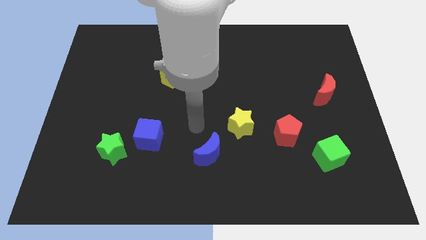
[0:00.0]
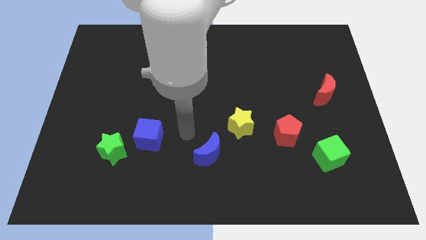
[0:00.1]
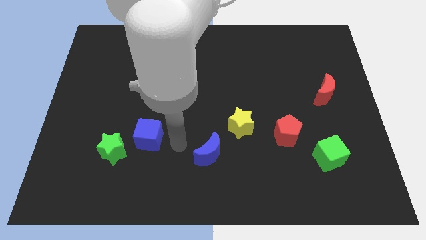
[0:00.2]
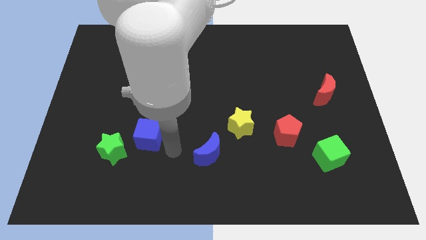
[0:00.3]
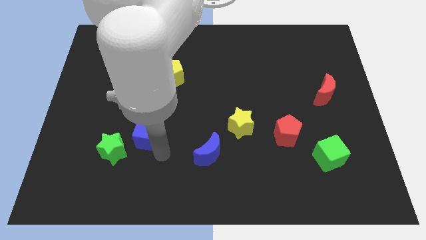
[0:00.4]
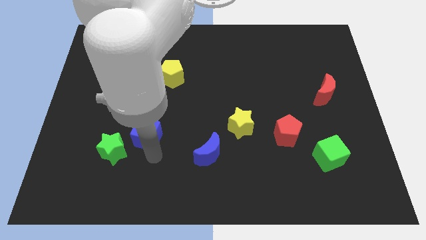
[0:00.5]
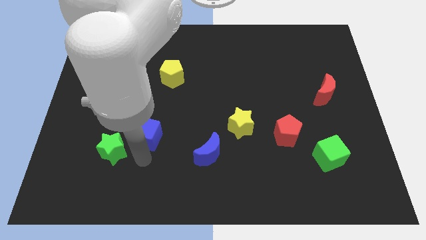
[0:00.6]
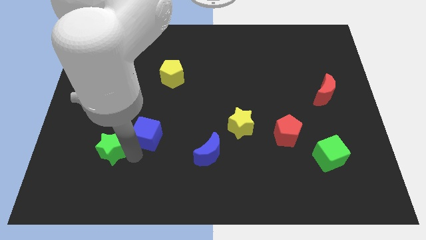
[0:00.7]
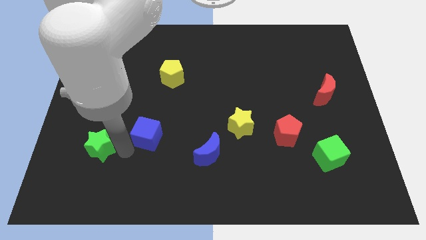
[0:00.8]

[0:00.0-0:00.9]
pull the blue cube apart from the green star

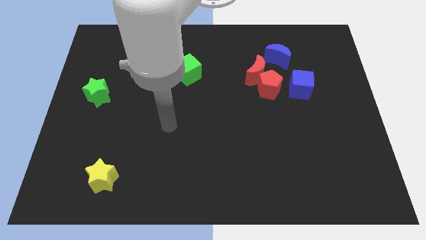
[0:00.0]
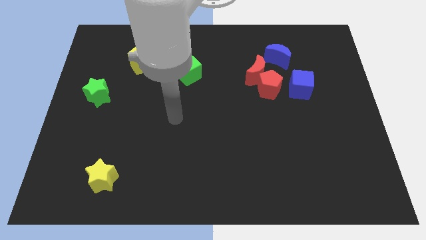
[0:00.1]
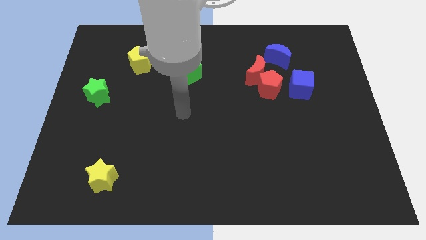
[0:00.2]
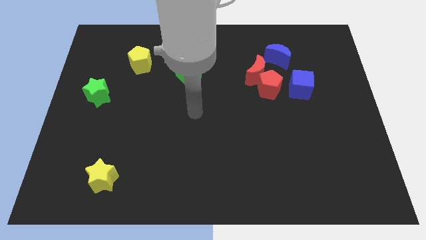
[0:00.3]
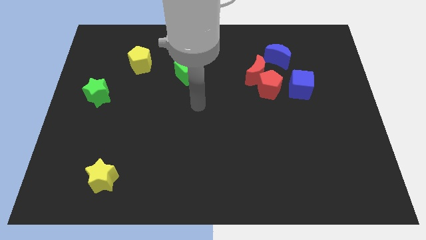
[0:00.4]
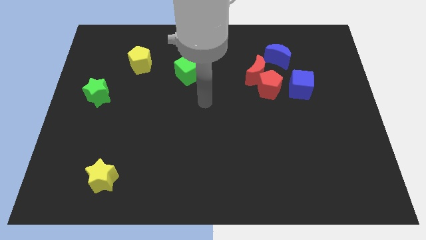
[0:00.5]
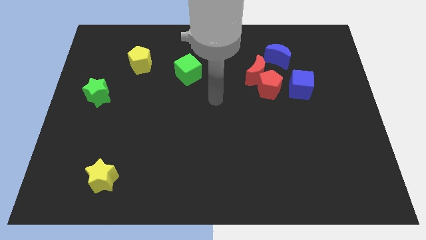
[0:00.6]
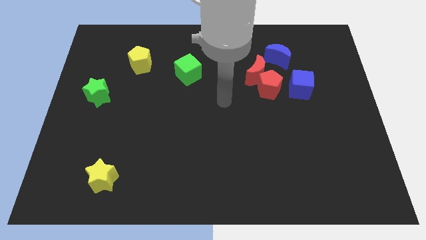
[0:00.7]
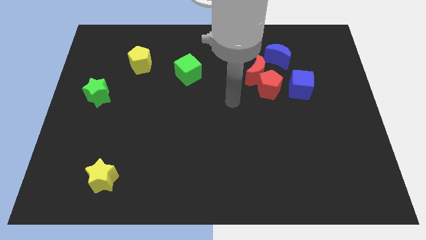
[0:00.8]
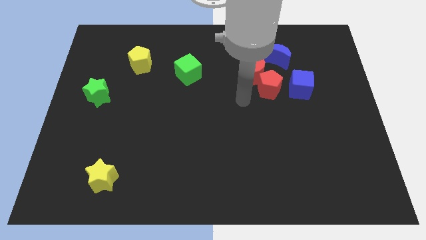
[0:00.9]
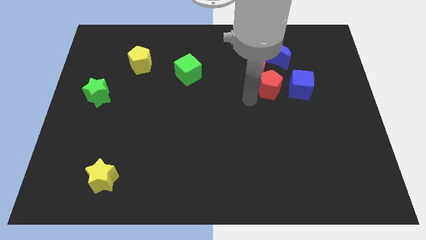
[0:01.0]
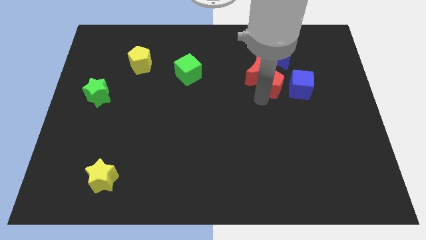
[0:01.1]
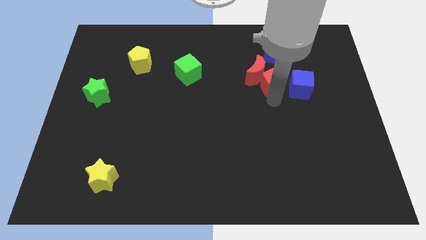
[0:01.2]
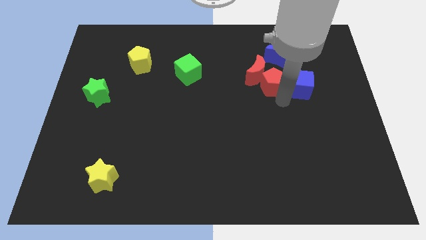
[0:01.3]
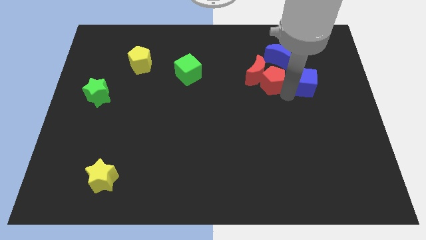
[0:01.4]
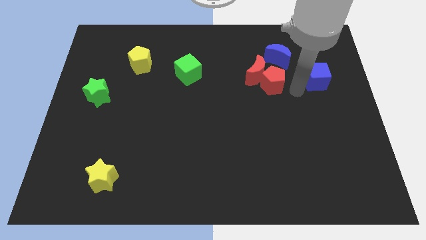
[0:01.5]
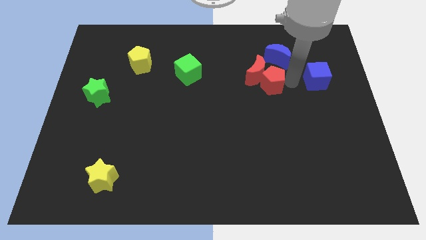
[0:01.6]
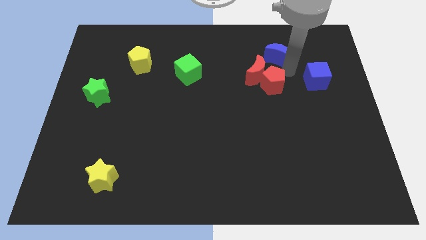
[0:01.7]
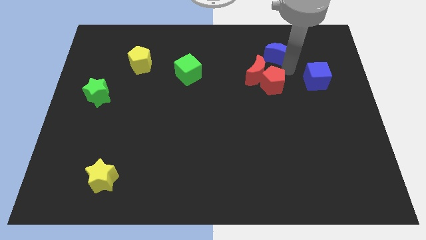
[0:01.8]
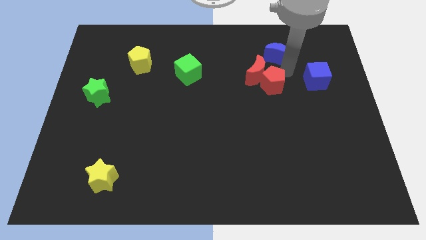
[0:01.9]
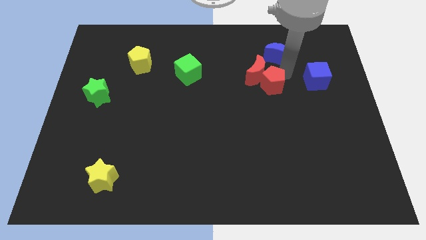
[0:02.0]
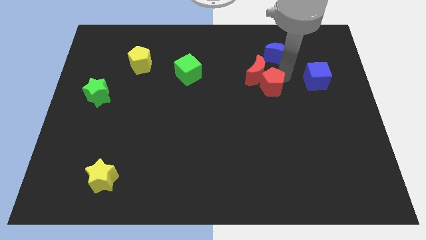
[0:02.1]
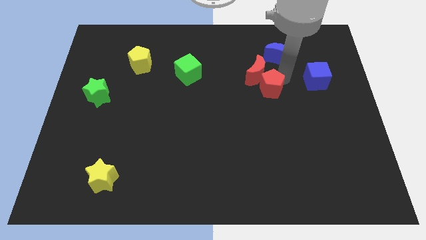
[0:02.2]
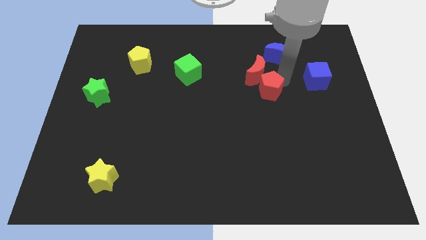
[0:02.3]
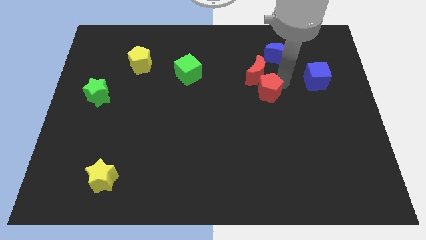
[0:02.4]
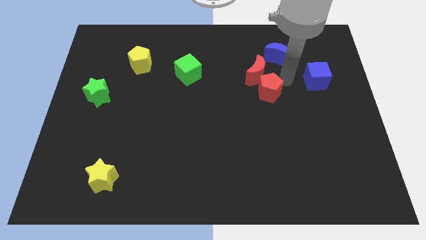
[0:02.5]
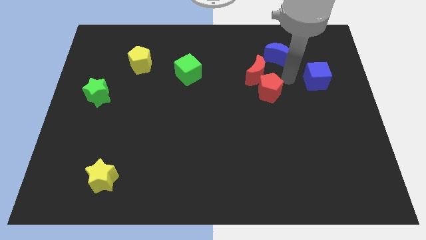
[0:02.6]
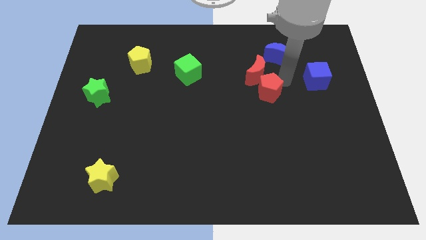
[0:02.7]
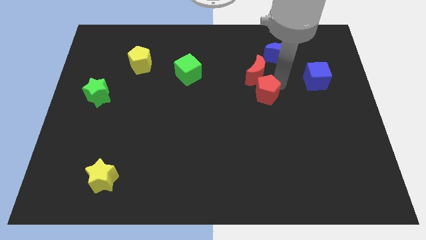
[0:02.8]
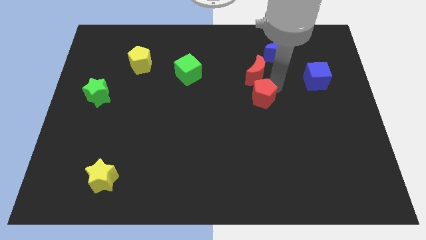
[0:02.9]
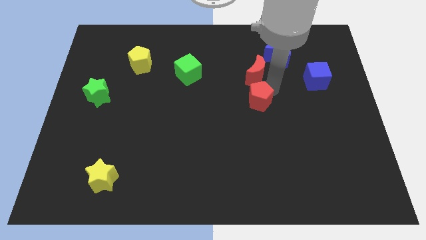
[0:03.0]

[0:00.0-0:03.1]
pull the red pentagon apart from the red moon and blue cube

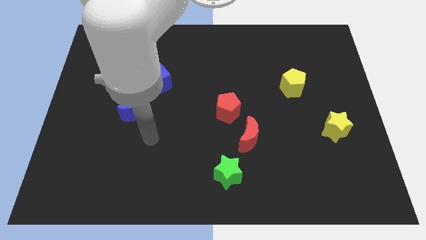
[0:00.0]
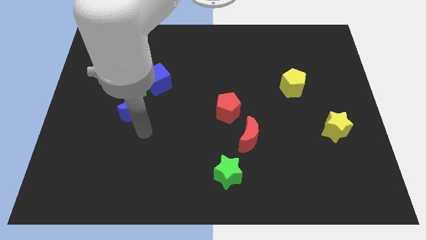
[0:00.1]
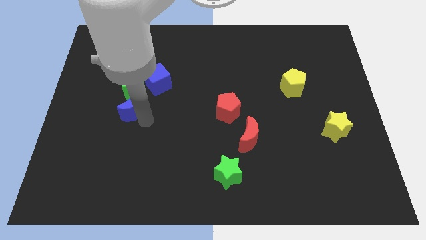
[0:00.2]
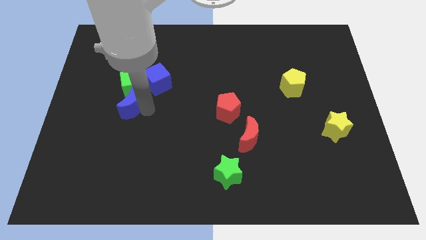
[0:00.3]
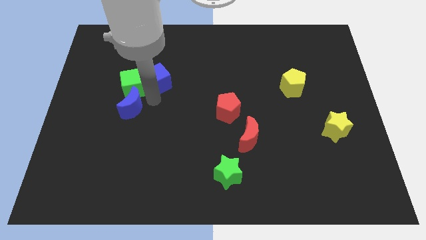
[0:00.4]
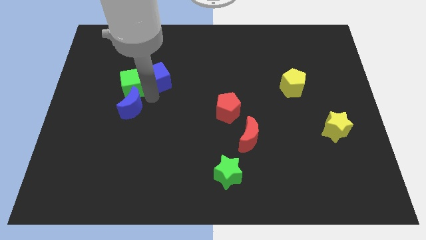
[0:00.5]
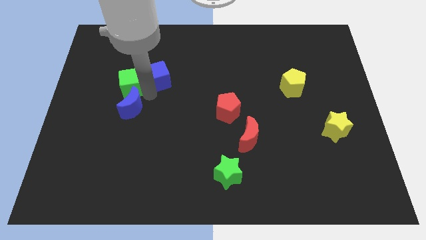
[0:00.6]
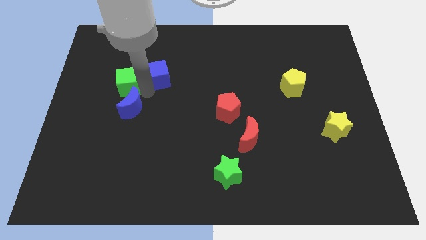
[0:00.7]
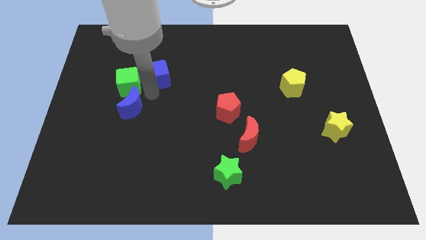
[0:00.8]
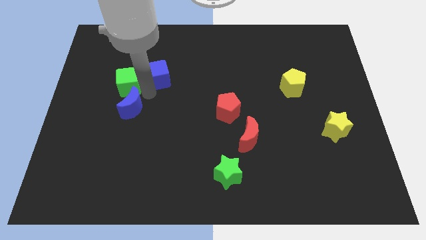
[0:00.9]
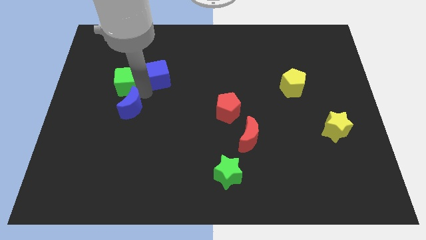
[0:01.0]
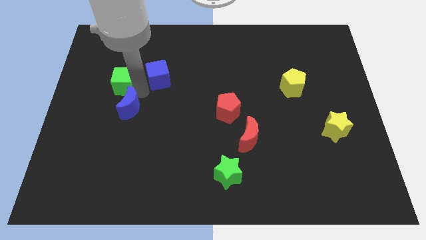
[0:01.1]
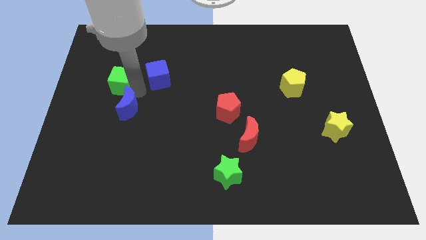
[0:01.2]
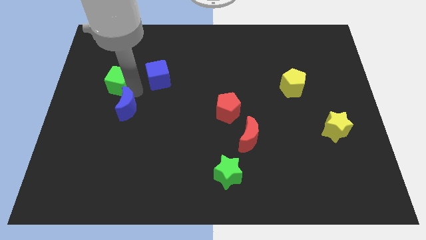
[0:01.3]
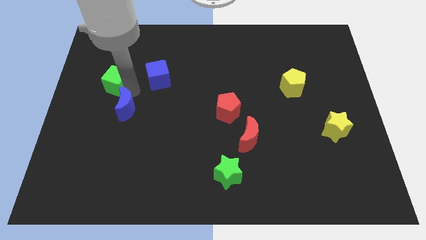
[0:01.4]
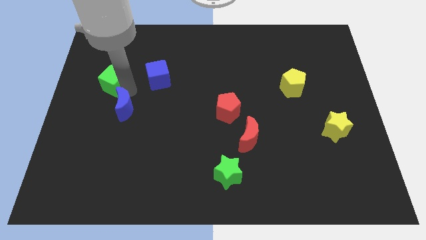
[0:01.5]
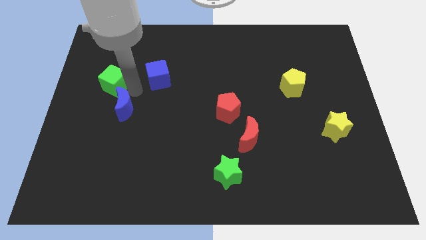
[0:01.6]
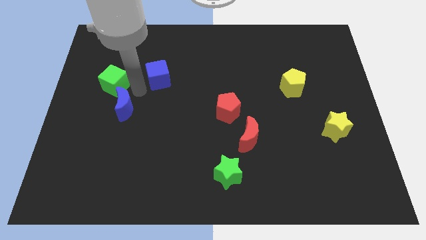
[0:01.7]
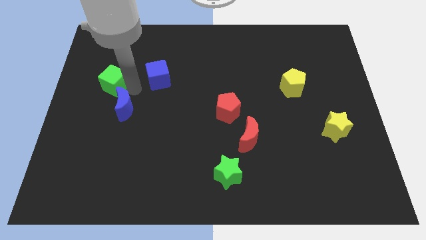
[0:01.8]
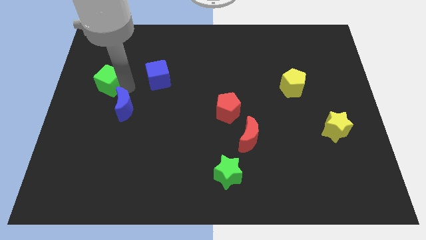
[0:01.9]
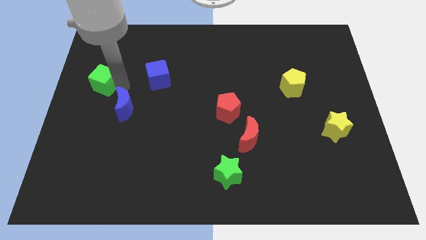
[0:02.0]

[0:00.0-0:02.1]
separate the green cube from the blue cube and blue moon

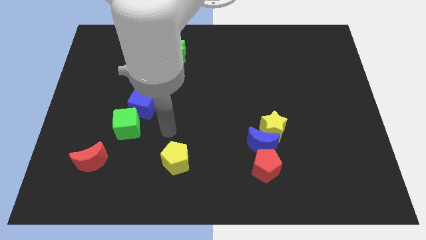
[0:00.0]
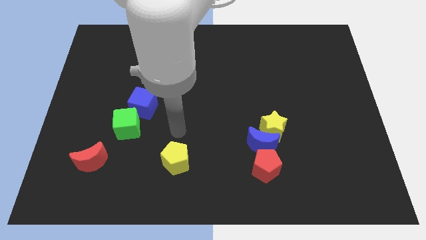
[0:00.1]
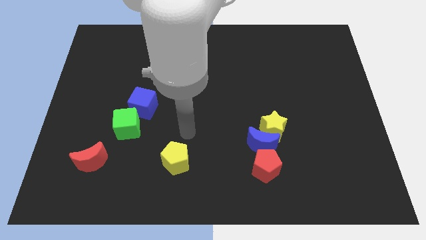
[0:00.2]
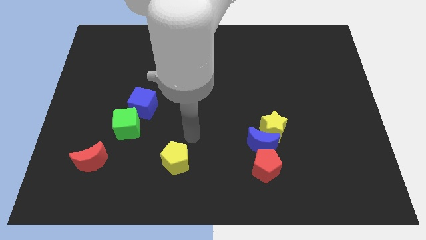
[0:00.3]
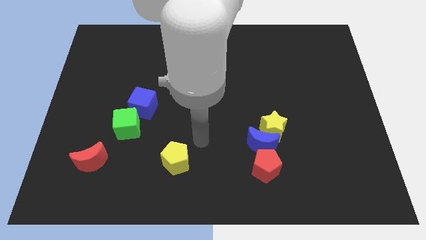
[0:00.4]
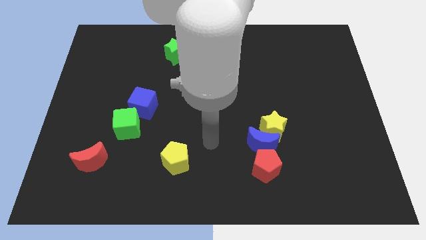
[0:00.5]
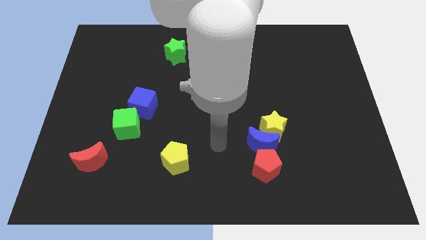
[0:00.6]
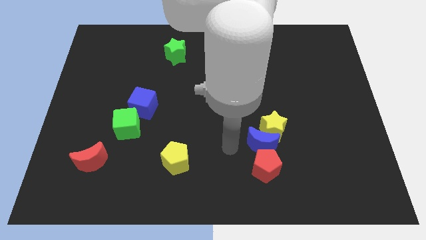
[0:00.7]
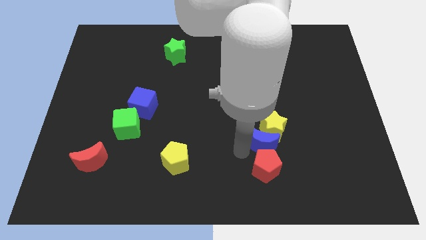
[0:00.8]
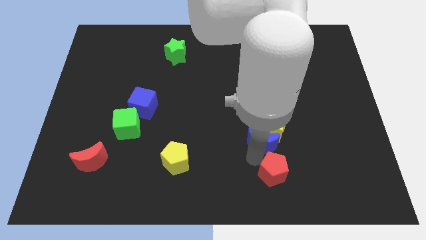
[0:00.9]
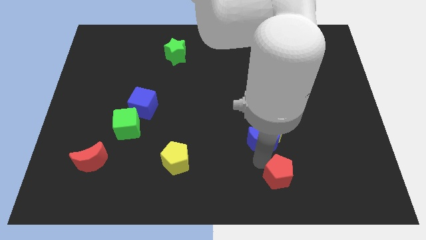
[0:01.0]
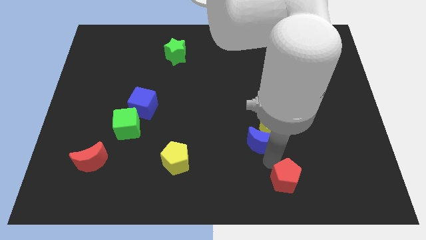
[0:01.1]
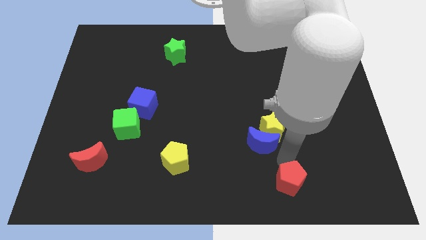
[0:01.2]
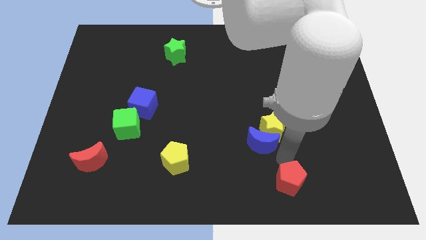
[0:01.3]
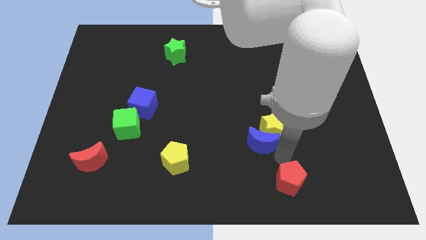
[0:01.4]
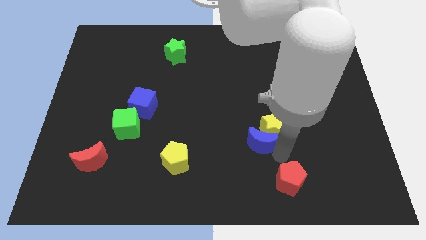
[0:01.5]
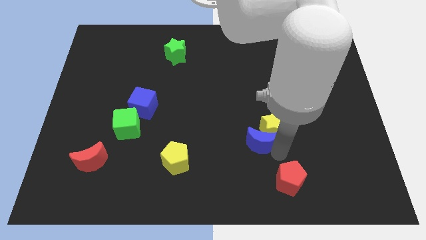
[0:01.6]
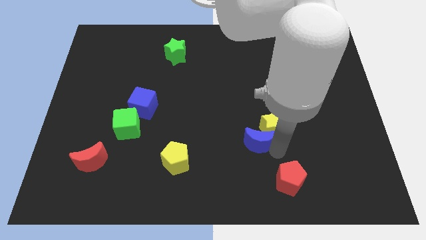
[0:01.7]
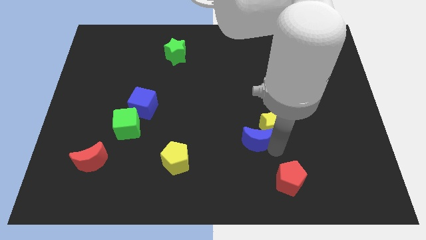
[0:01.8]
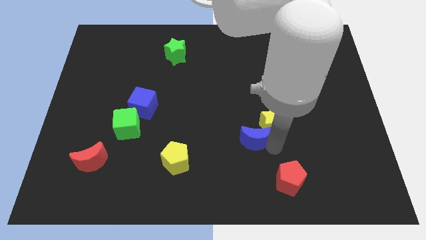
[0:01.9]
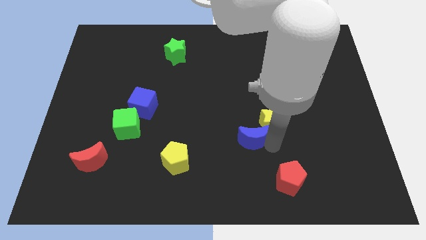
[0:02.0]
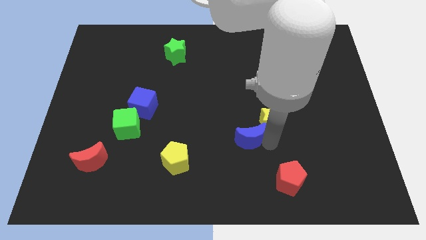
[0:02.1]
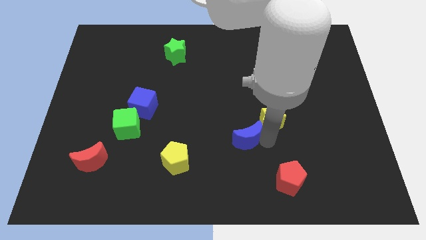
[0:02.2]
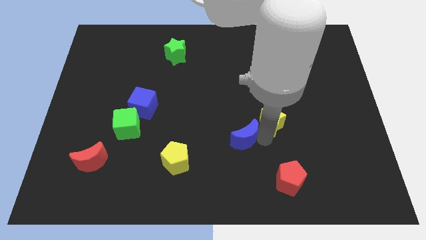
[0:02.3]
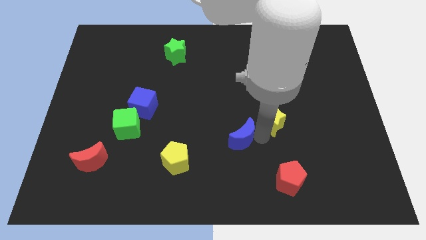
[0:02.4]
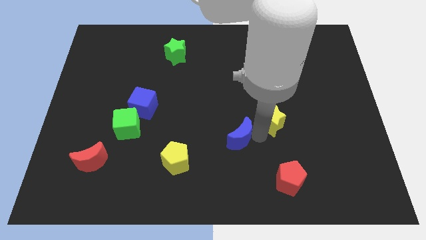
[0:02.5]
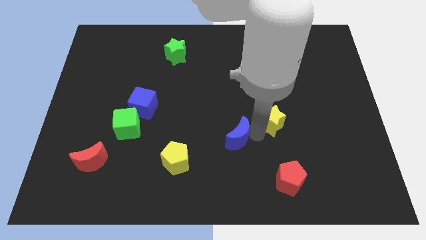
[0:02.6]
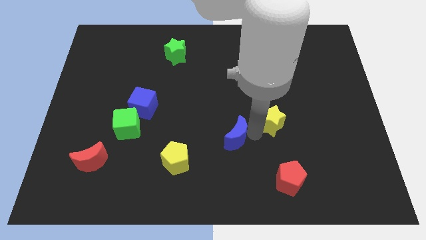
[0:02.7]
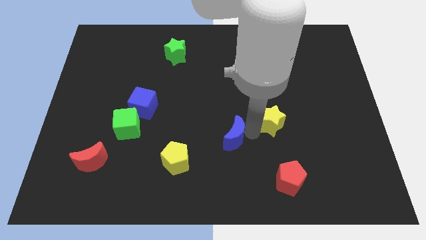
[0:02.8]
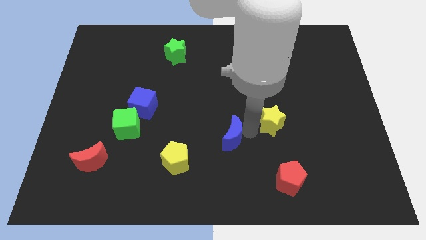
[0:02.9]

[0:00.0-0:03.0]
move the blue moon away from the yellow star and red pentagon

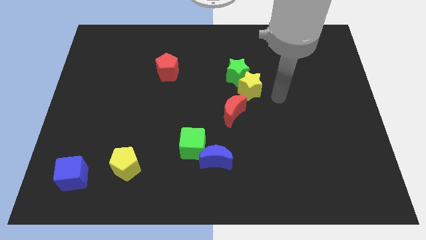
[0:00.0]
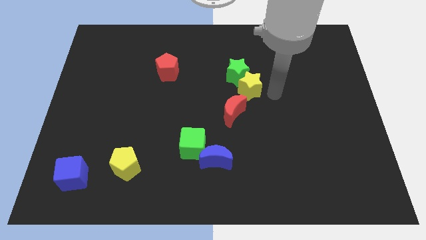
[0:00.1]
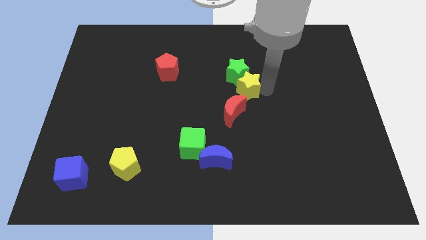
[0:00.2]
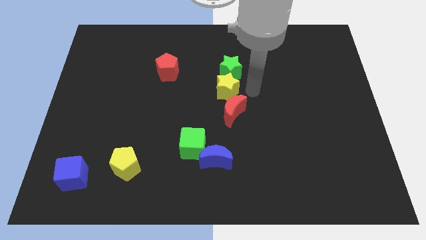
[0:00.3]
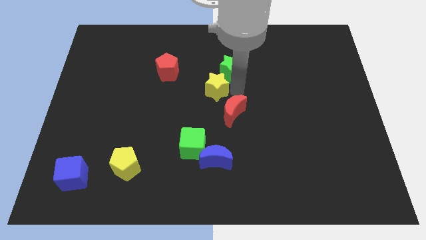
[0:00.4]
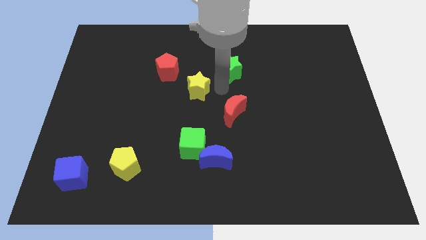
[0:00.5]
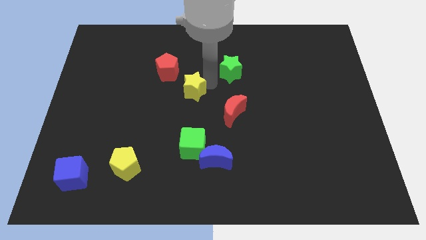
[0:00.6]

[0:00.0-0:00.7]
pull the green star apart from the yellow star
